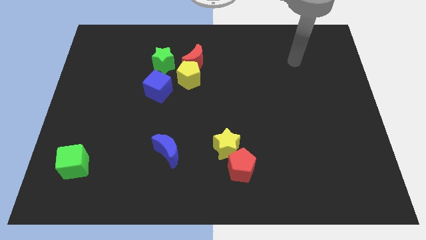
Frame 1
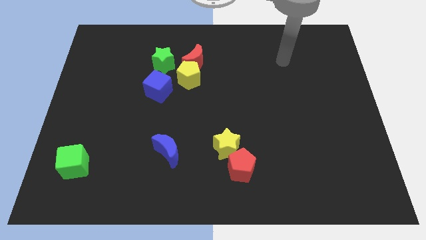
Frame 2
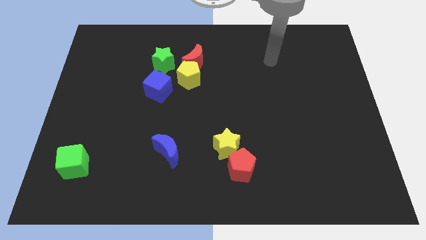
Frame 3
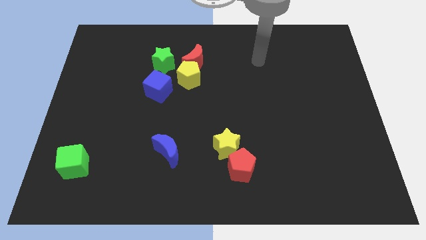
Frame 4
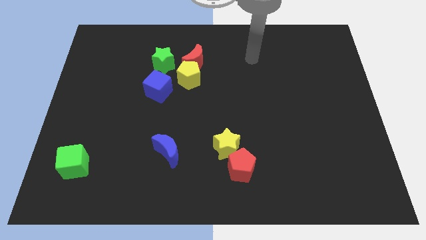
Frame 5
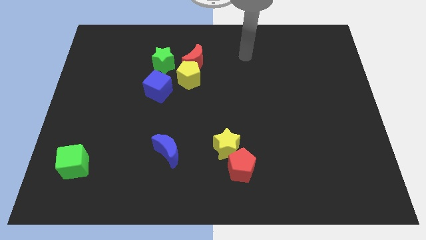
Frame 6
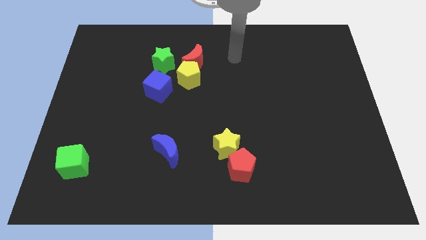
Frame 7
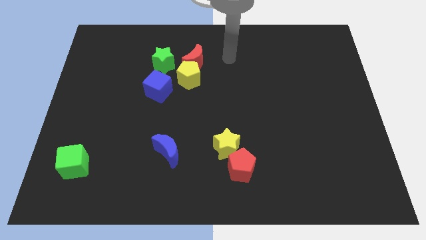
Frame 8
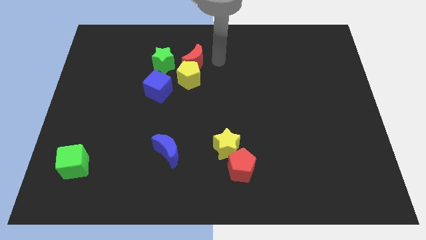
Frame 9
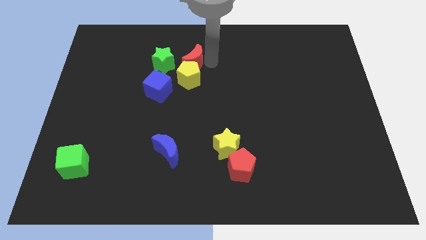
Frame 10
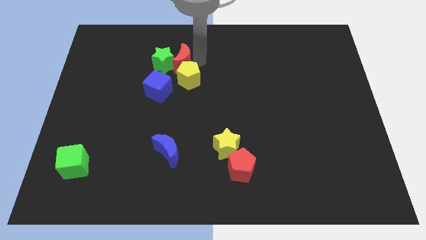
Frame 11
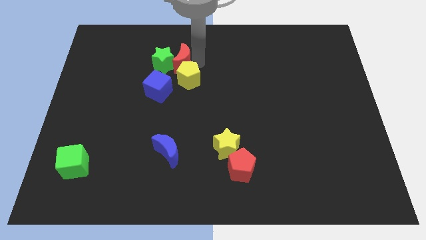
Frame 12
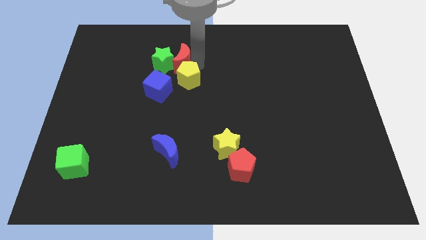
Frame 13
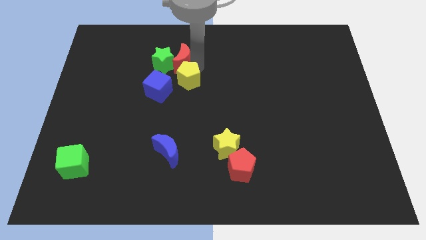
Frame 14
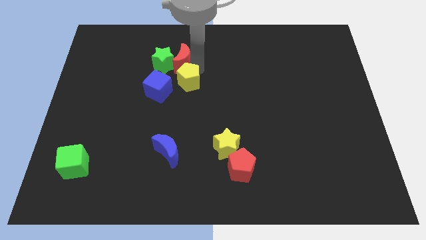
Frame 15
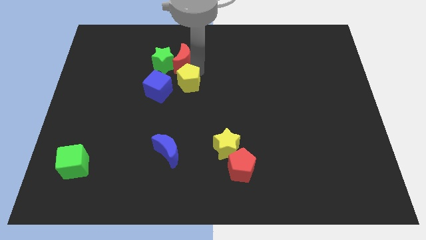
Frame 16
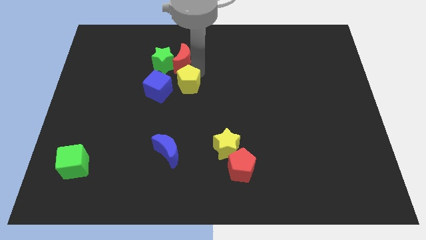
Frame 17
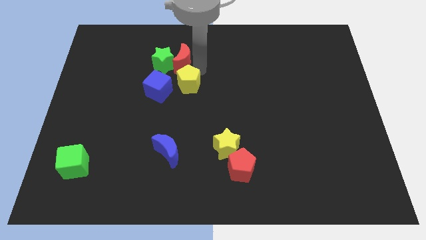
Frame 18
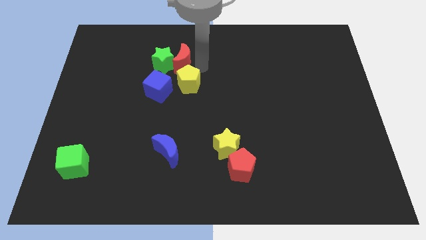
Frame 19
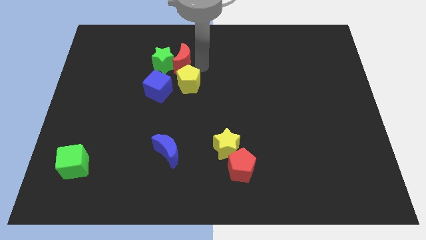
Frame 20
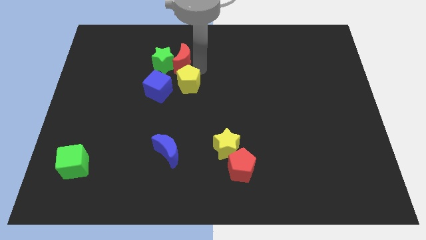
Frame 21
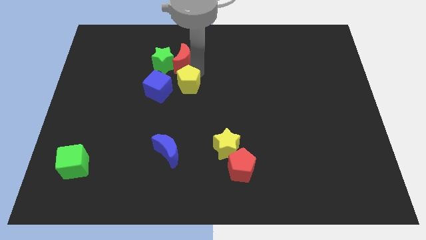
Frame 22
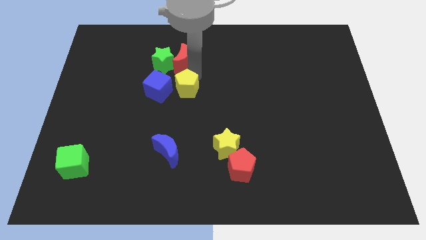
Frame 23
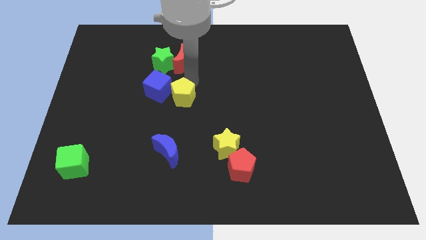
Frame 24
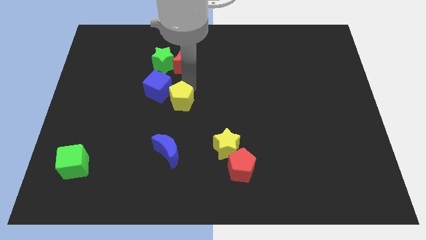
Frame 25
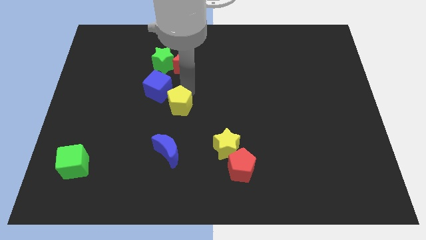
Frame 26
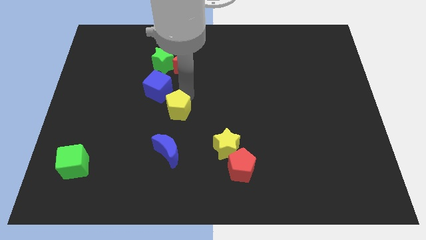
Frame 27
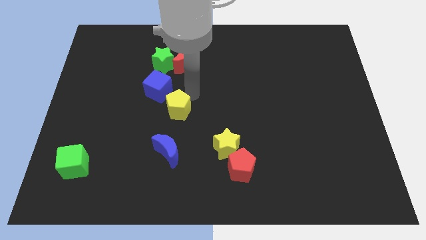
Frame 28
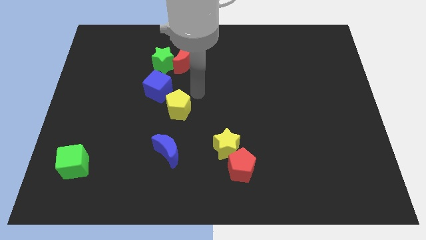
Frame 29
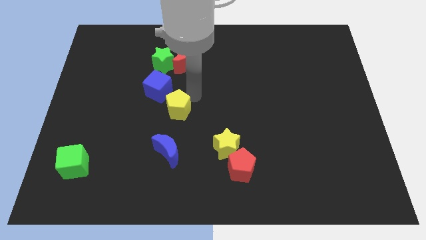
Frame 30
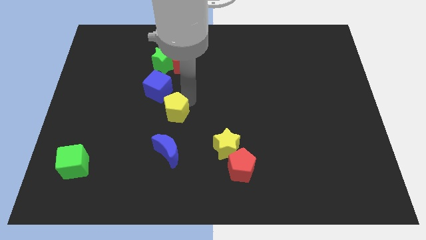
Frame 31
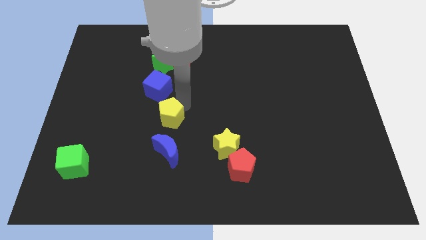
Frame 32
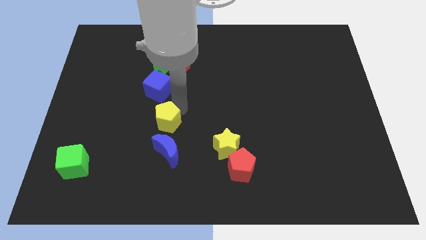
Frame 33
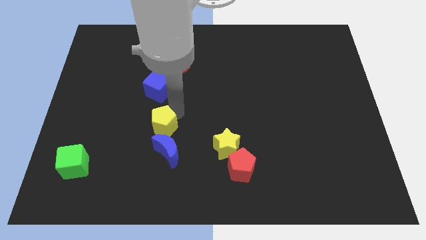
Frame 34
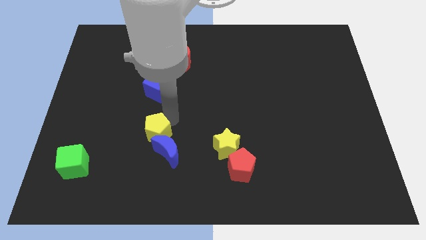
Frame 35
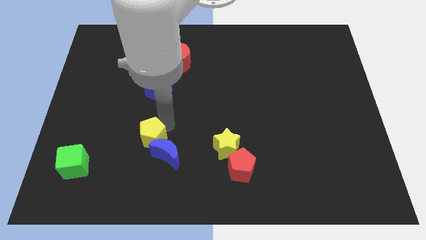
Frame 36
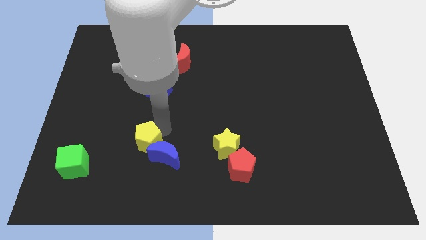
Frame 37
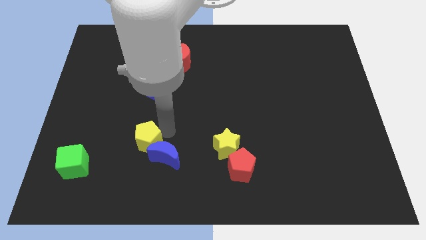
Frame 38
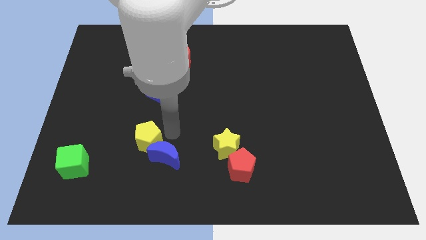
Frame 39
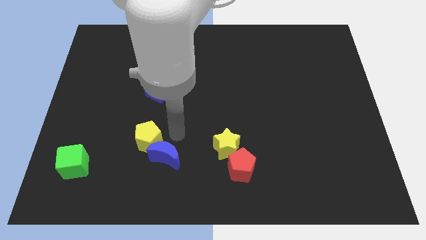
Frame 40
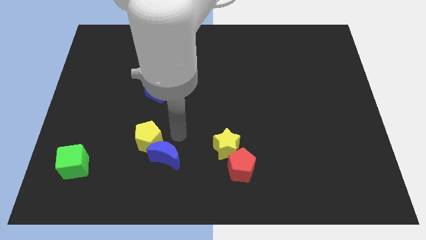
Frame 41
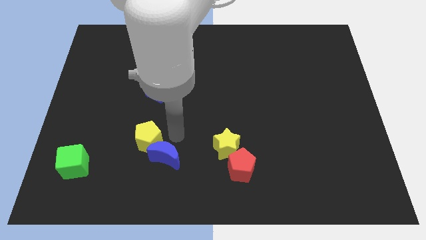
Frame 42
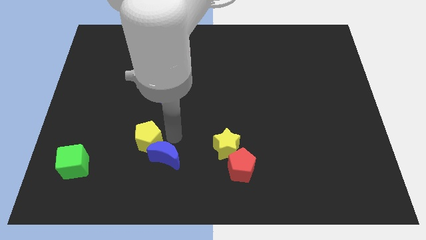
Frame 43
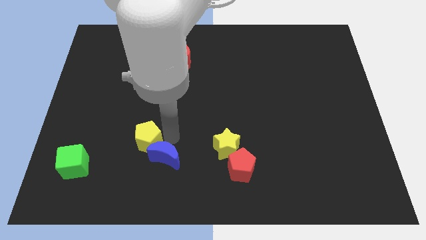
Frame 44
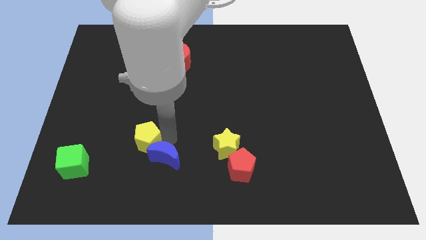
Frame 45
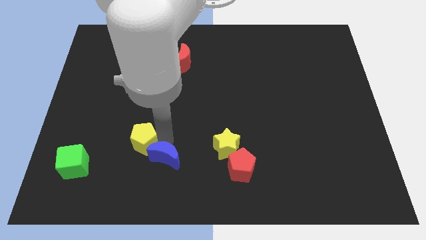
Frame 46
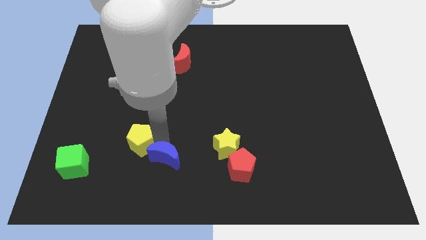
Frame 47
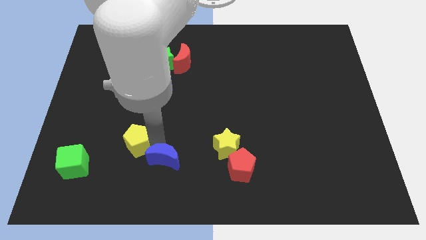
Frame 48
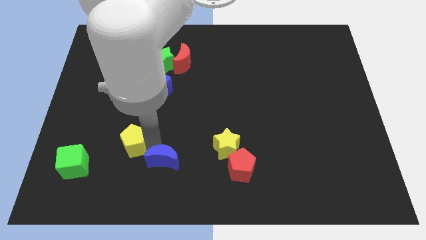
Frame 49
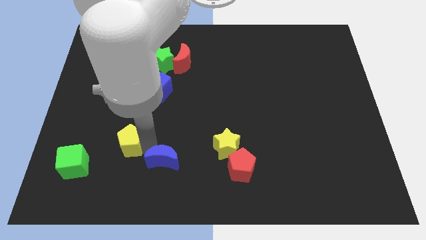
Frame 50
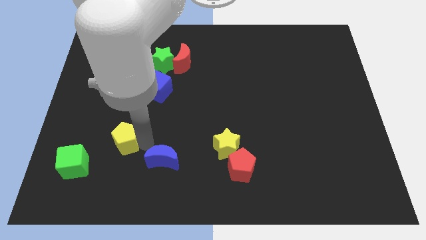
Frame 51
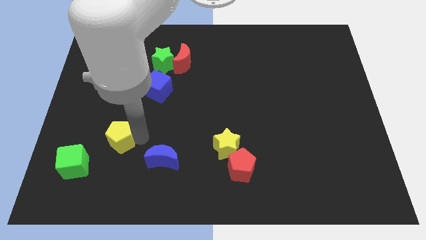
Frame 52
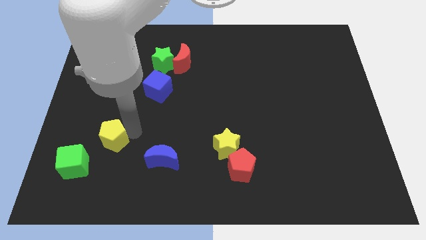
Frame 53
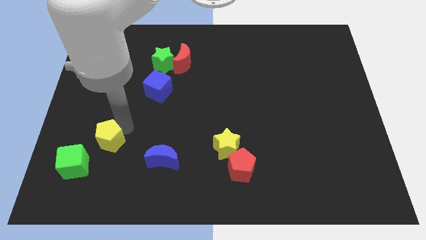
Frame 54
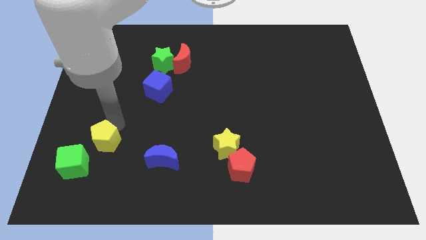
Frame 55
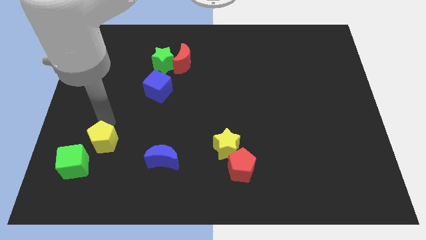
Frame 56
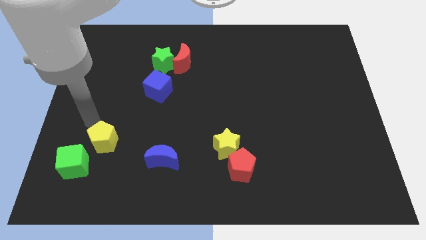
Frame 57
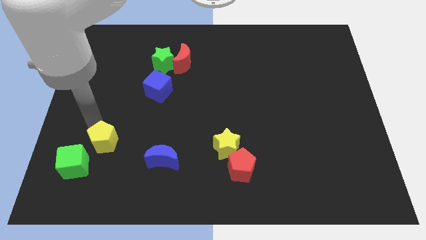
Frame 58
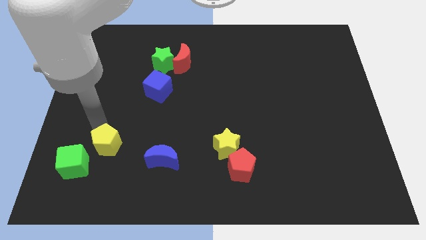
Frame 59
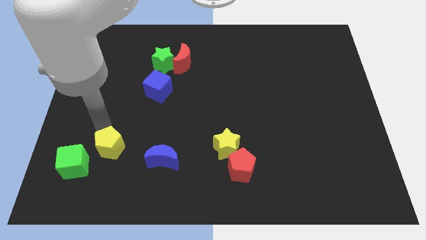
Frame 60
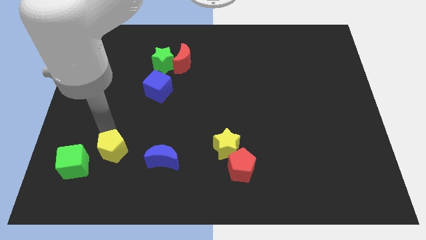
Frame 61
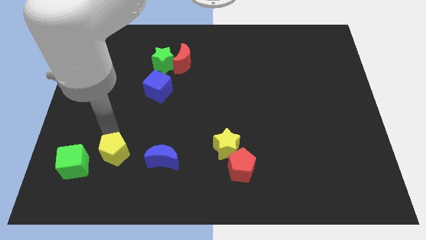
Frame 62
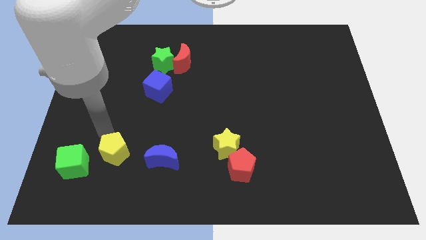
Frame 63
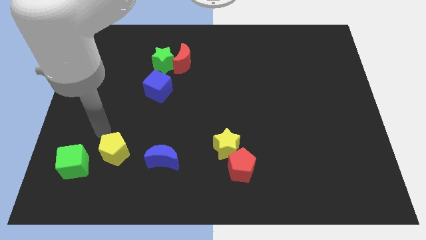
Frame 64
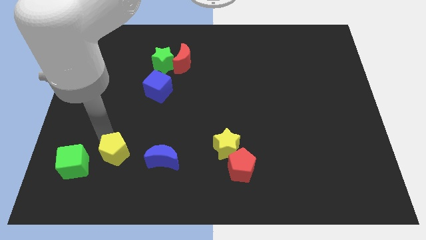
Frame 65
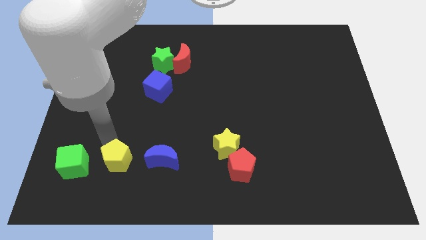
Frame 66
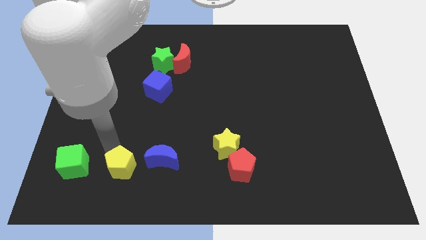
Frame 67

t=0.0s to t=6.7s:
move the yellow pentagon to the bottom left side of the blue moon

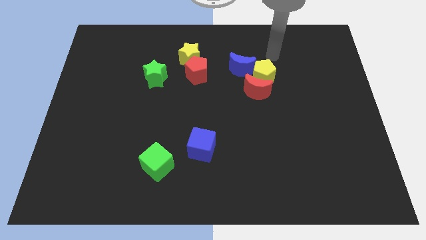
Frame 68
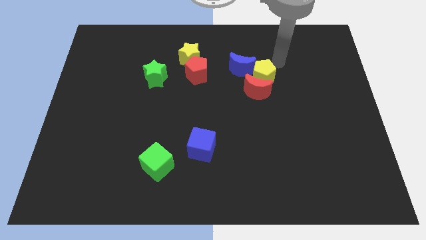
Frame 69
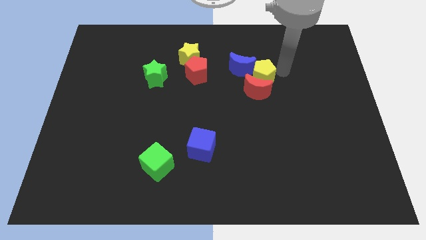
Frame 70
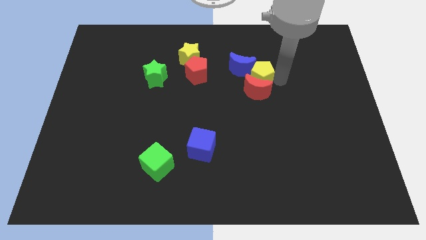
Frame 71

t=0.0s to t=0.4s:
put the yellow pentagon to the top left side of the red moon
